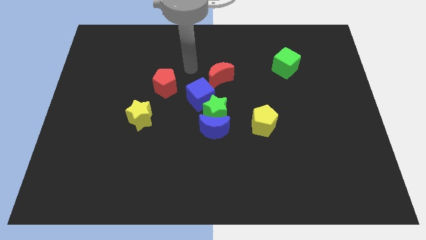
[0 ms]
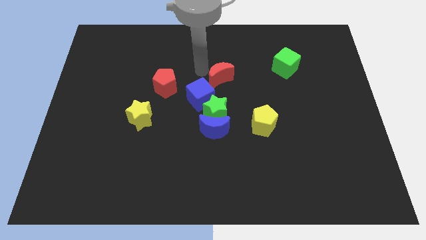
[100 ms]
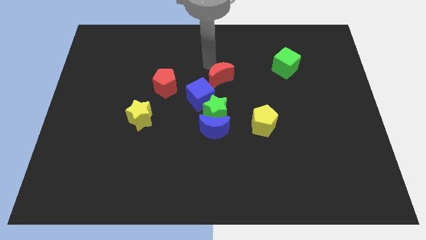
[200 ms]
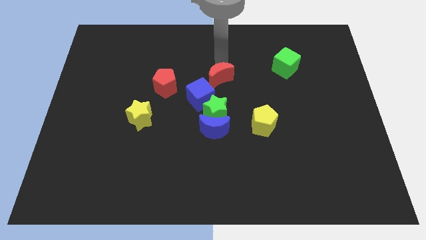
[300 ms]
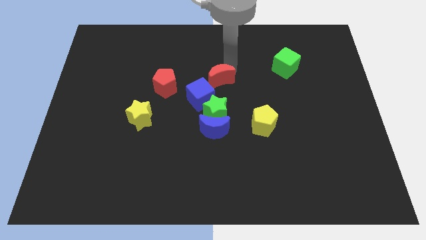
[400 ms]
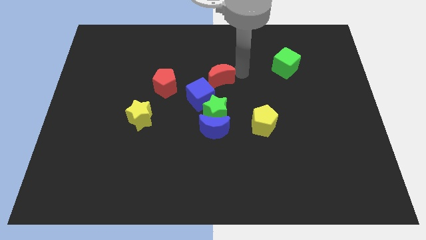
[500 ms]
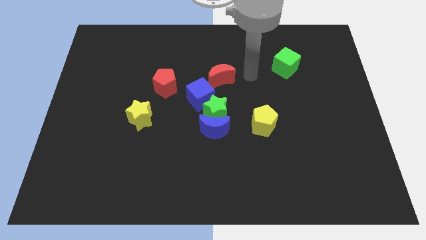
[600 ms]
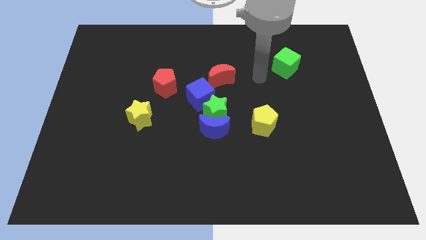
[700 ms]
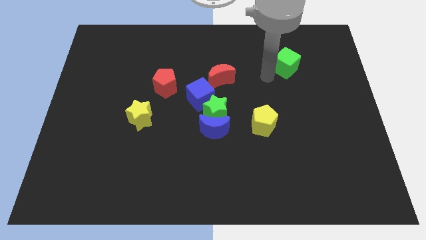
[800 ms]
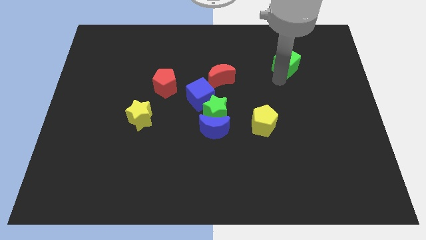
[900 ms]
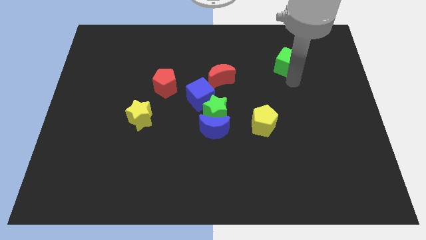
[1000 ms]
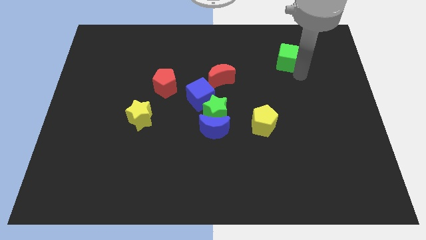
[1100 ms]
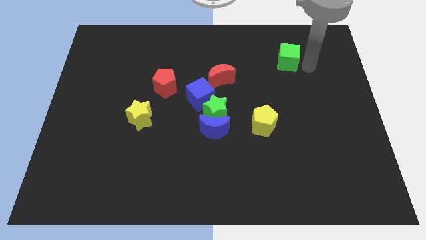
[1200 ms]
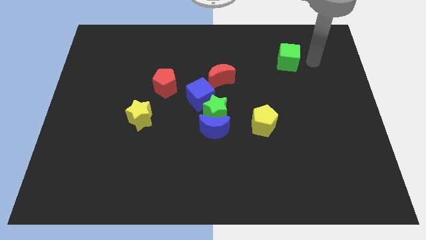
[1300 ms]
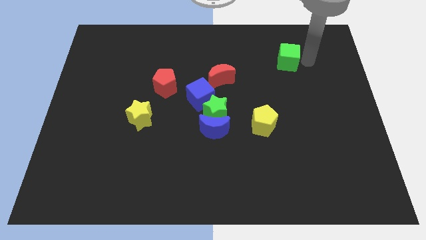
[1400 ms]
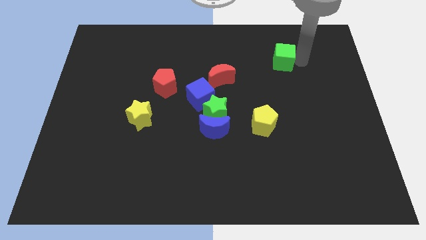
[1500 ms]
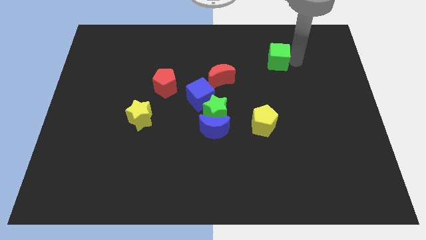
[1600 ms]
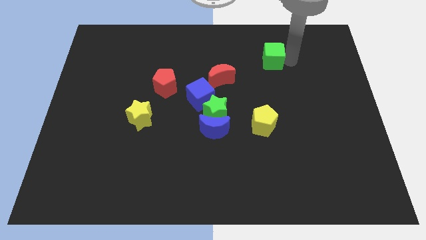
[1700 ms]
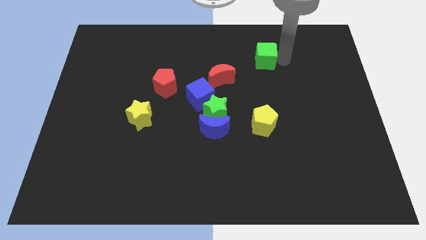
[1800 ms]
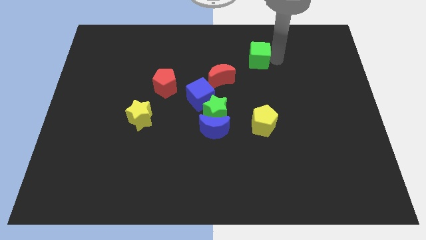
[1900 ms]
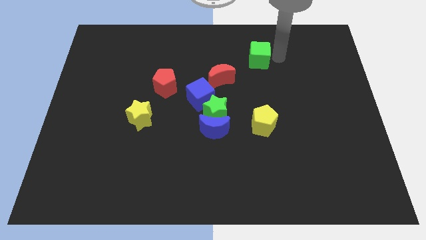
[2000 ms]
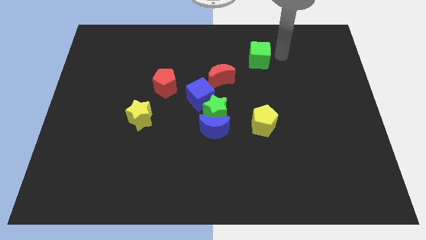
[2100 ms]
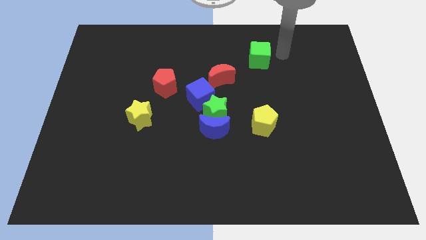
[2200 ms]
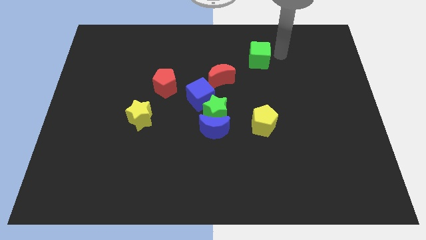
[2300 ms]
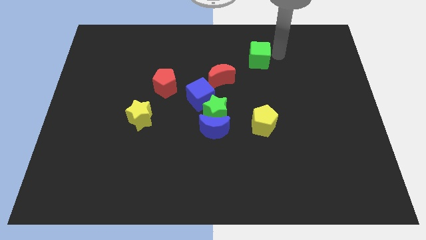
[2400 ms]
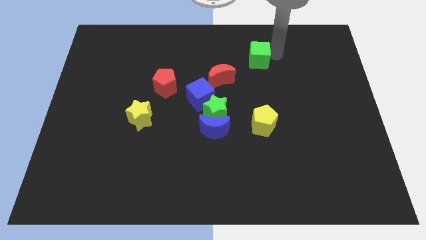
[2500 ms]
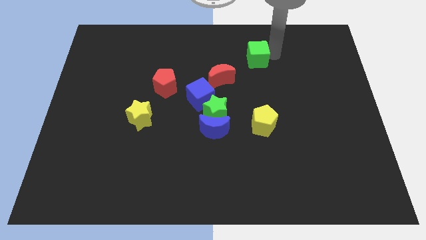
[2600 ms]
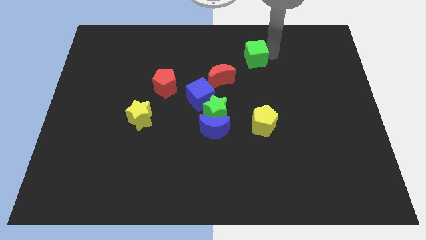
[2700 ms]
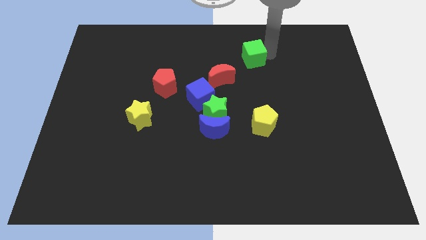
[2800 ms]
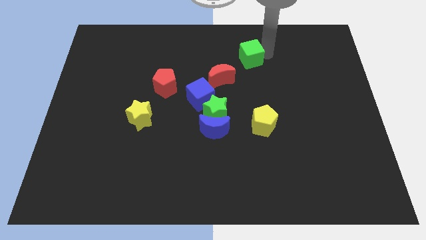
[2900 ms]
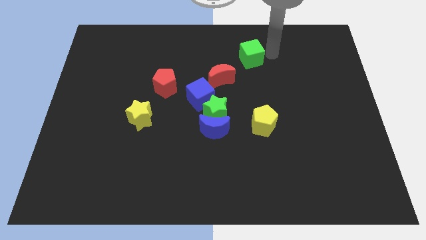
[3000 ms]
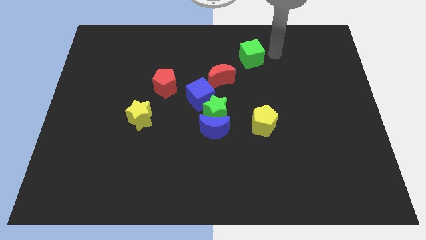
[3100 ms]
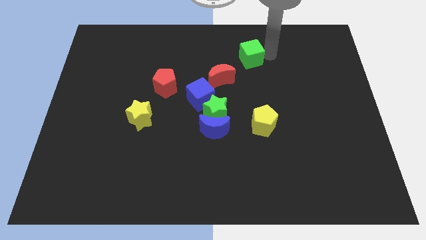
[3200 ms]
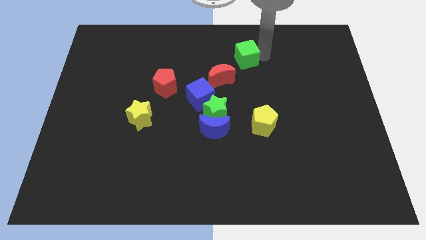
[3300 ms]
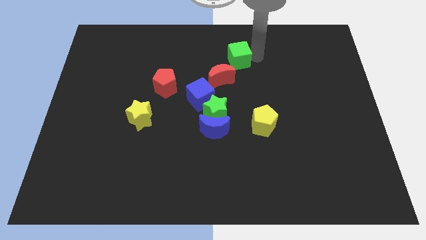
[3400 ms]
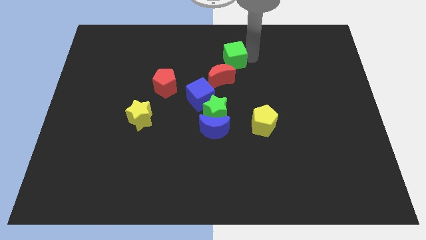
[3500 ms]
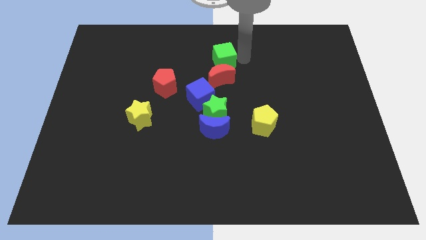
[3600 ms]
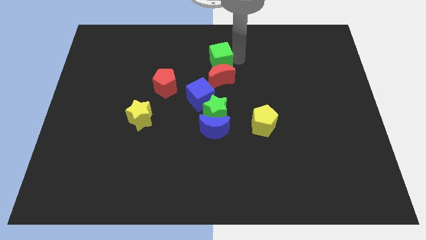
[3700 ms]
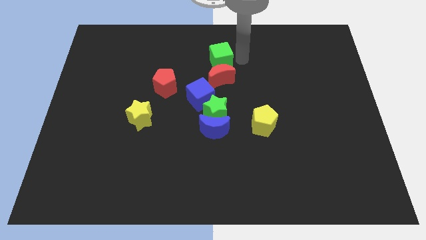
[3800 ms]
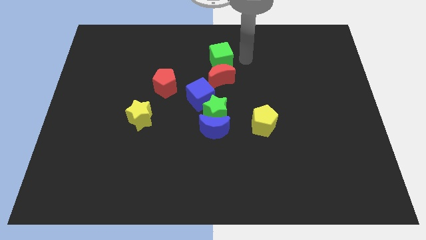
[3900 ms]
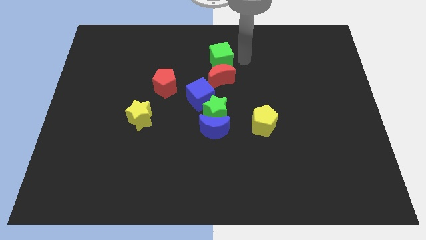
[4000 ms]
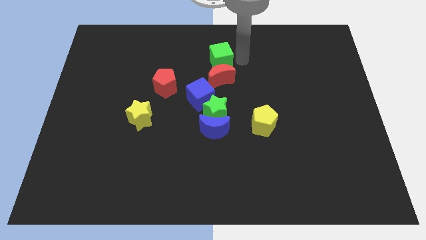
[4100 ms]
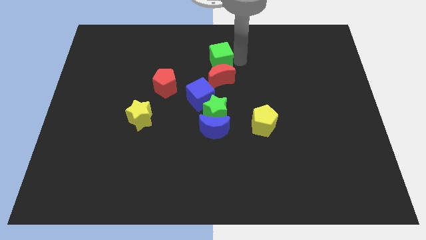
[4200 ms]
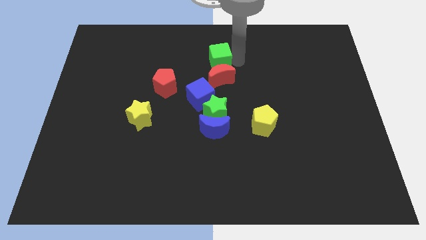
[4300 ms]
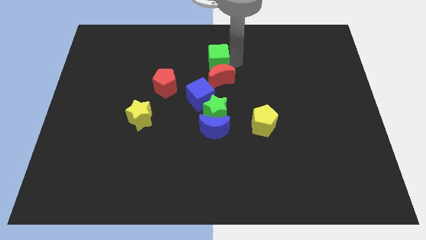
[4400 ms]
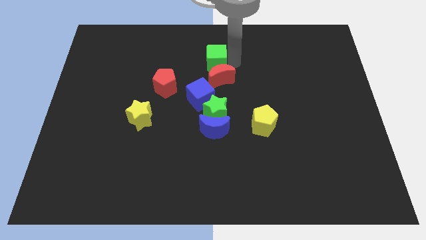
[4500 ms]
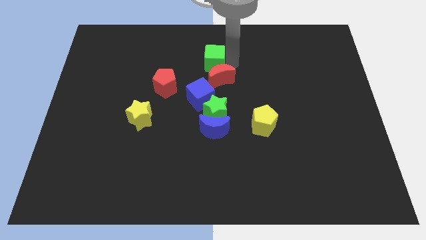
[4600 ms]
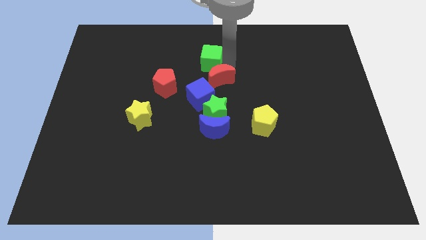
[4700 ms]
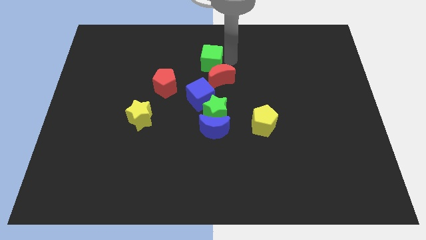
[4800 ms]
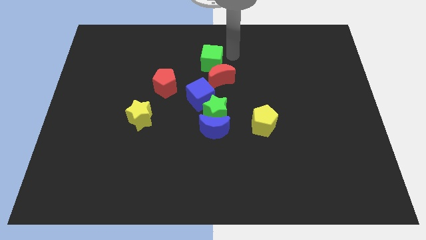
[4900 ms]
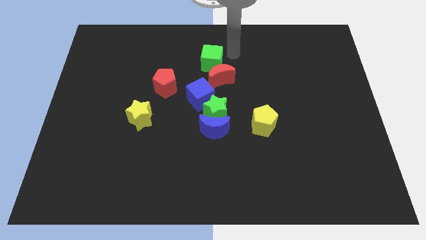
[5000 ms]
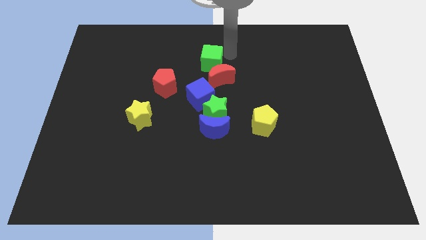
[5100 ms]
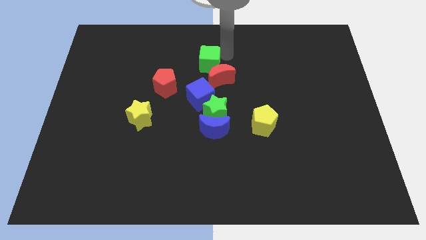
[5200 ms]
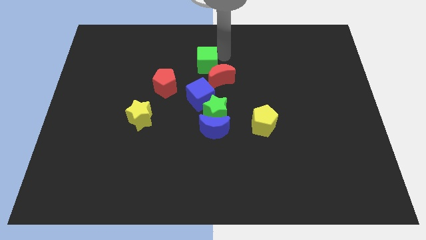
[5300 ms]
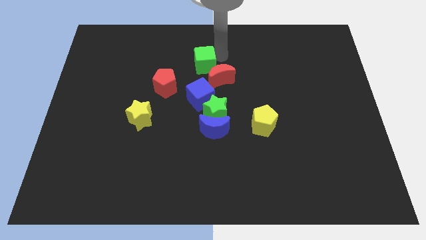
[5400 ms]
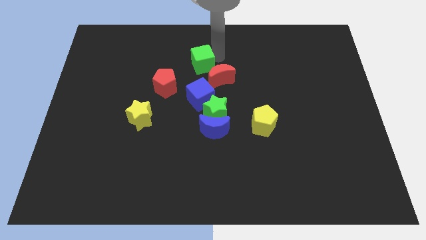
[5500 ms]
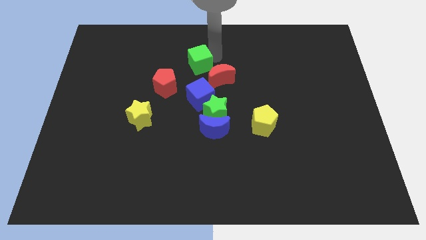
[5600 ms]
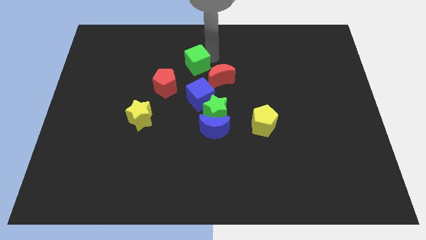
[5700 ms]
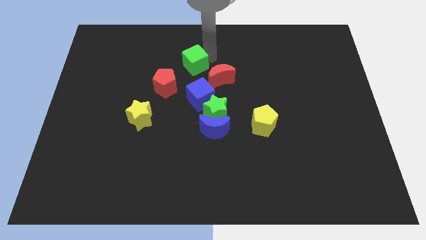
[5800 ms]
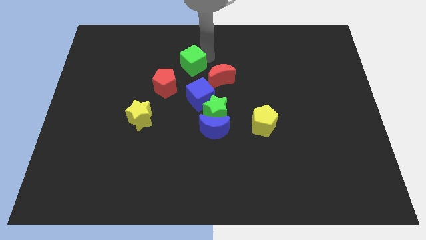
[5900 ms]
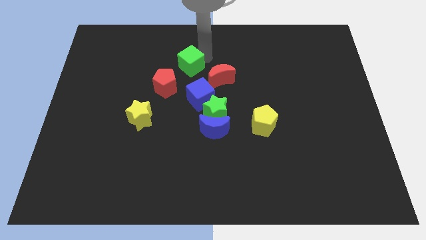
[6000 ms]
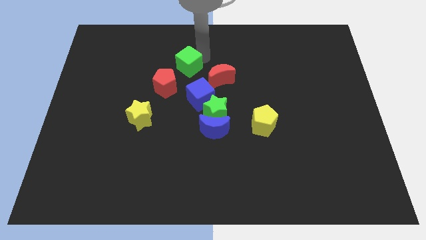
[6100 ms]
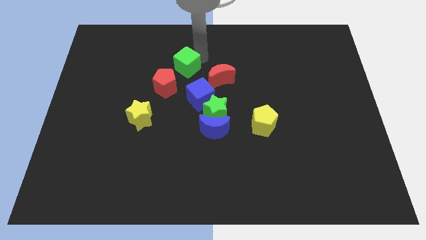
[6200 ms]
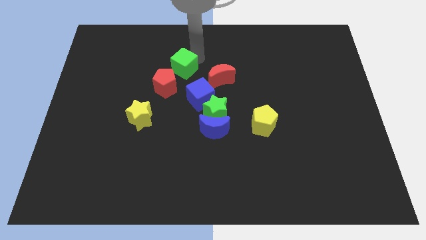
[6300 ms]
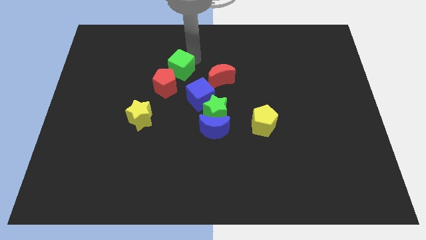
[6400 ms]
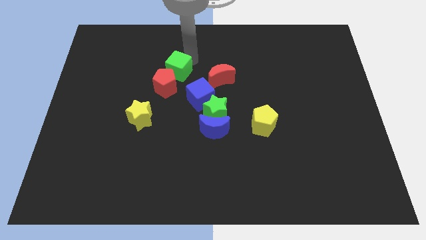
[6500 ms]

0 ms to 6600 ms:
slide the green cube towards the red pentagon

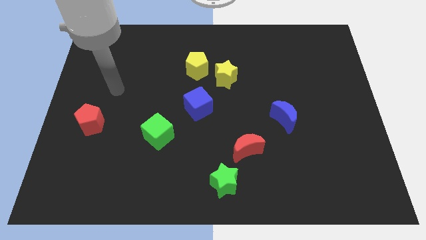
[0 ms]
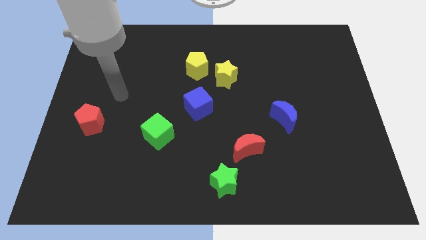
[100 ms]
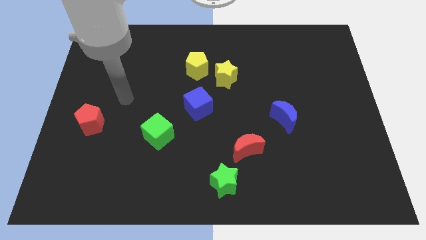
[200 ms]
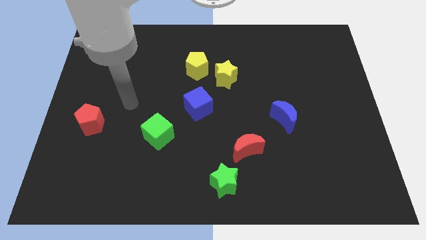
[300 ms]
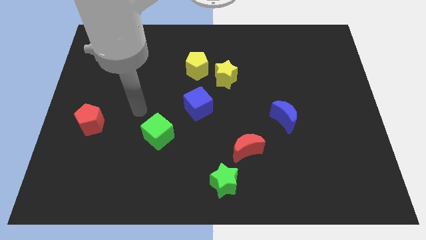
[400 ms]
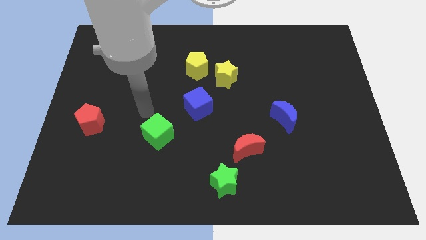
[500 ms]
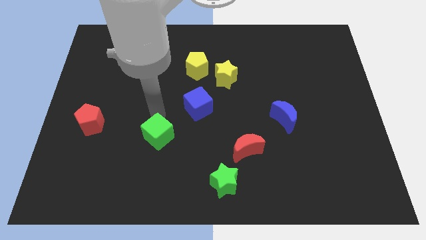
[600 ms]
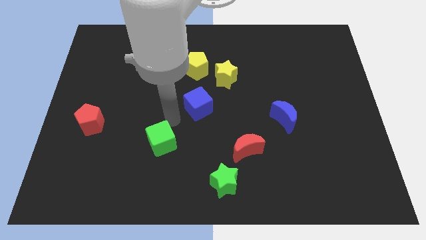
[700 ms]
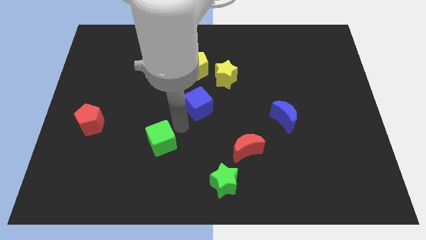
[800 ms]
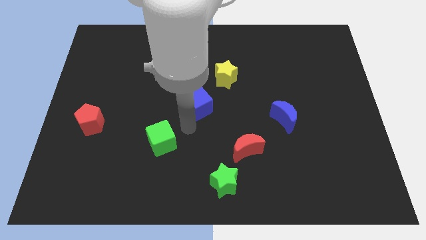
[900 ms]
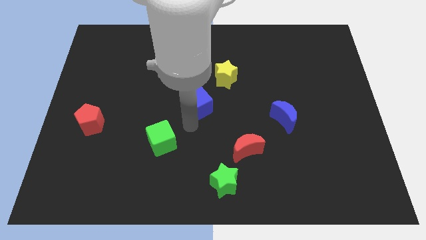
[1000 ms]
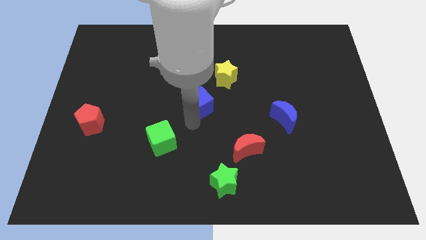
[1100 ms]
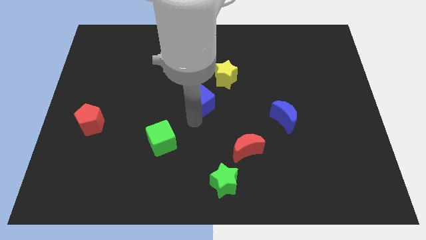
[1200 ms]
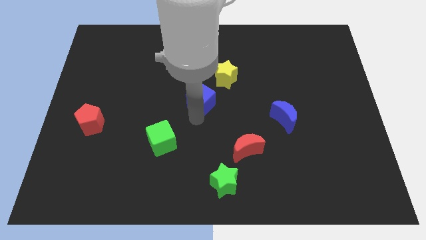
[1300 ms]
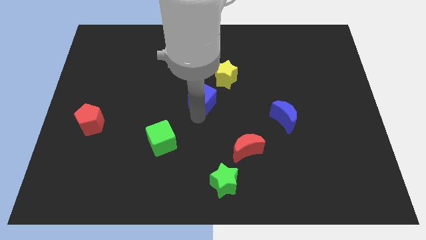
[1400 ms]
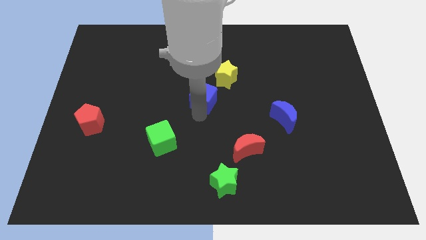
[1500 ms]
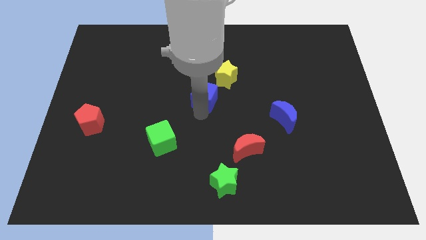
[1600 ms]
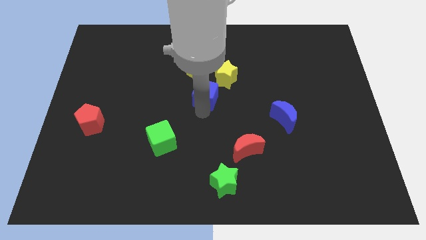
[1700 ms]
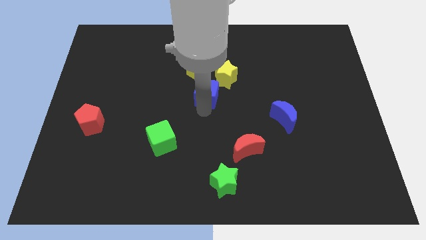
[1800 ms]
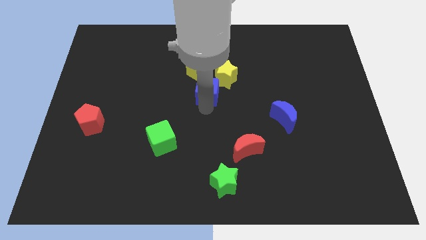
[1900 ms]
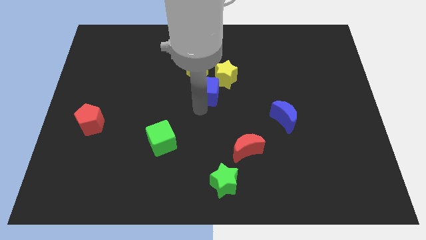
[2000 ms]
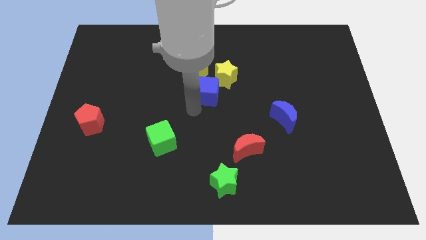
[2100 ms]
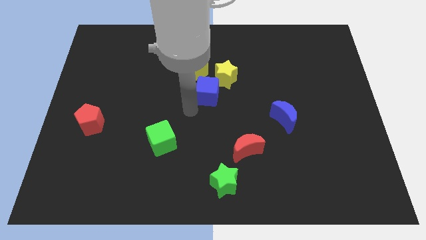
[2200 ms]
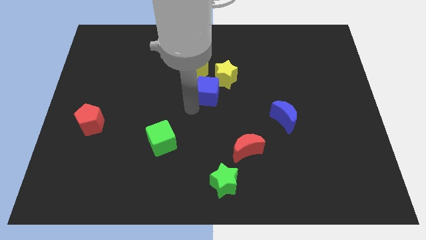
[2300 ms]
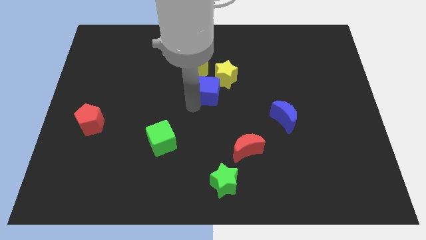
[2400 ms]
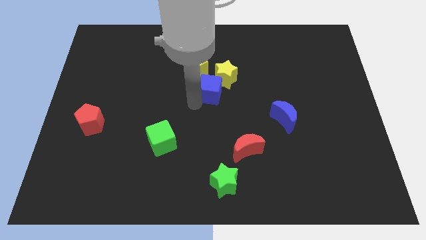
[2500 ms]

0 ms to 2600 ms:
put the blue cube to the yellow star
